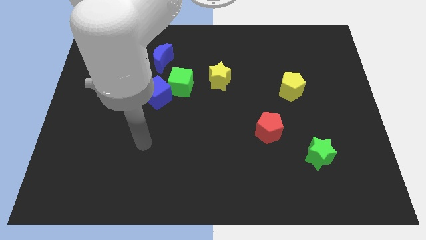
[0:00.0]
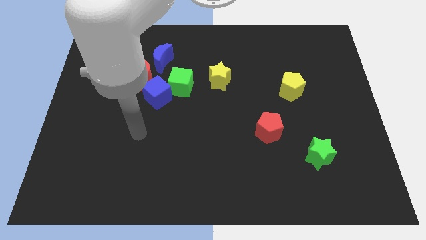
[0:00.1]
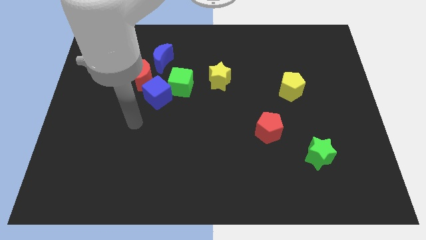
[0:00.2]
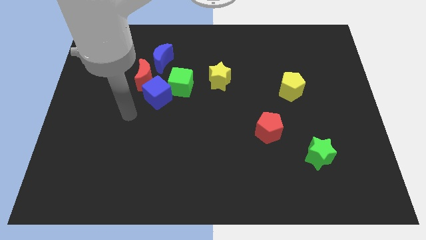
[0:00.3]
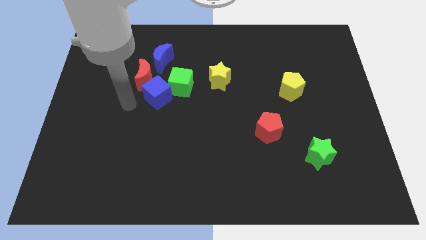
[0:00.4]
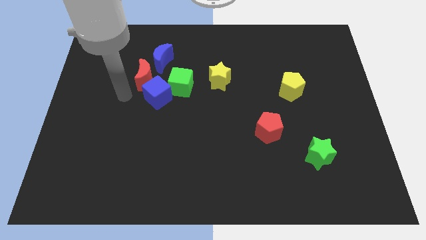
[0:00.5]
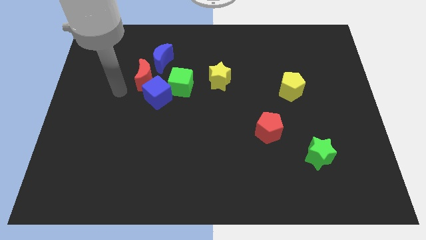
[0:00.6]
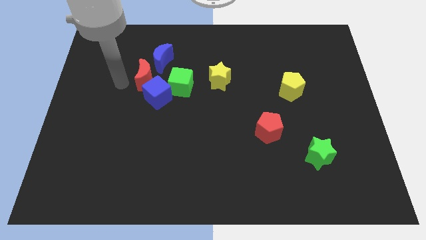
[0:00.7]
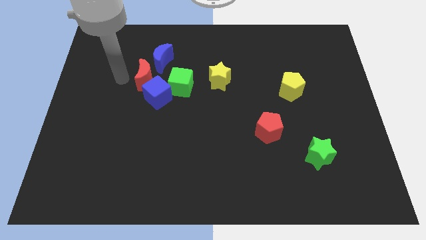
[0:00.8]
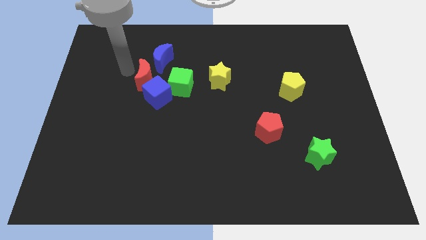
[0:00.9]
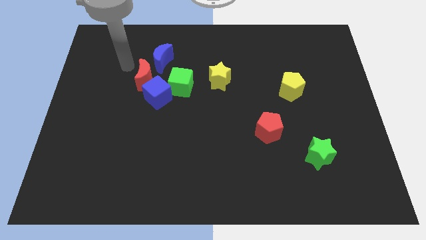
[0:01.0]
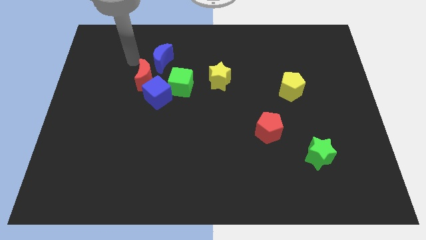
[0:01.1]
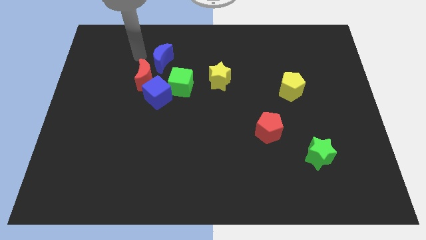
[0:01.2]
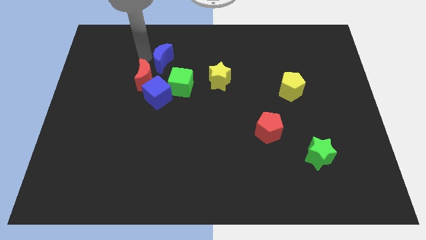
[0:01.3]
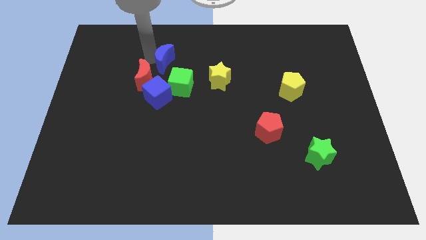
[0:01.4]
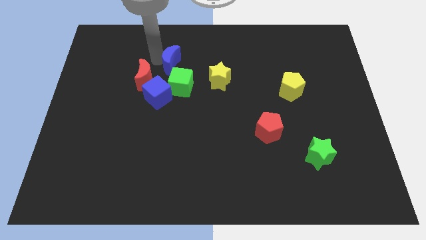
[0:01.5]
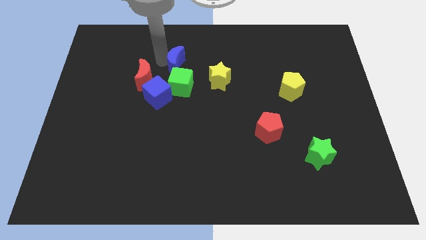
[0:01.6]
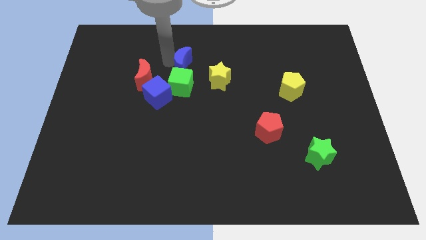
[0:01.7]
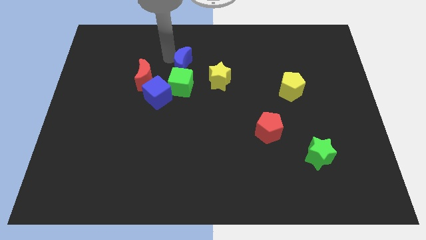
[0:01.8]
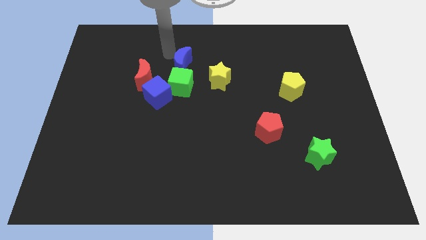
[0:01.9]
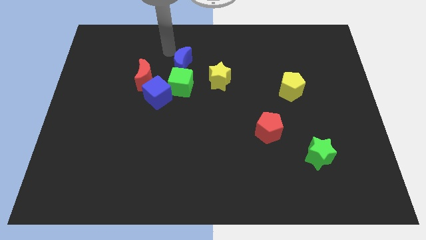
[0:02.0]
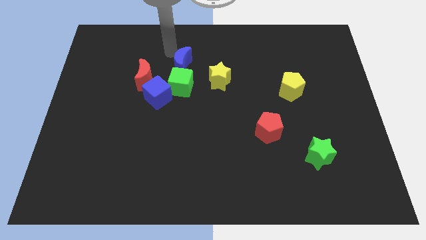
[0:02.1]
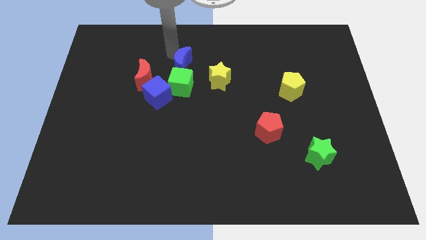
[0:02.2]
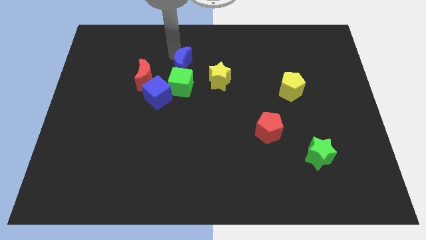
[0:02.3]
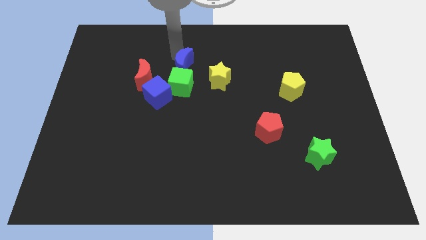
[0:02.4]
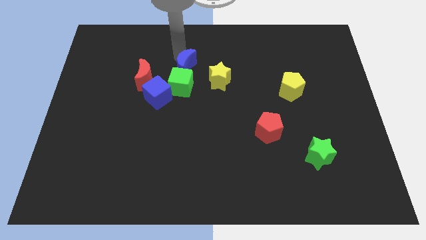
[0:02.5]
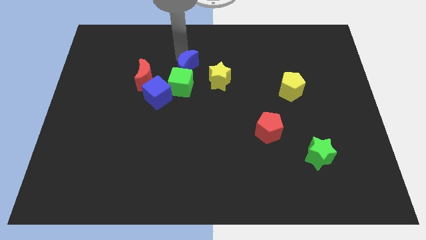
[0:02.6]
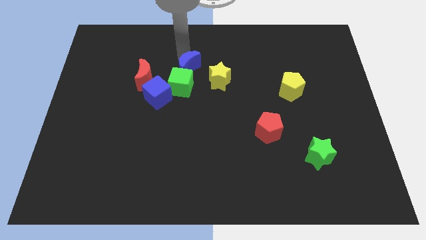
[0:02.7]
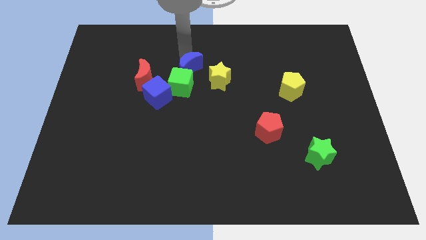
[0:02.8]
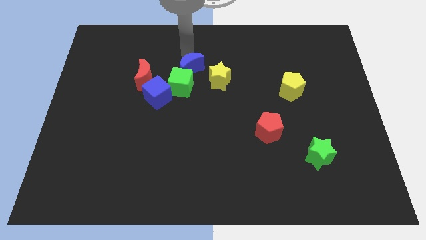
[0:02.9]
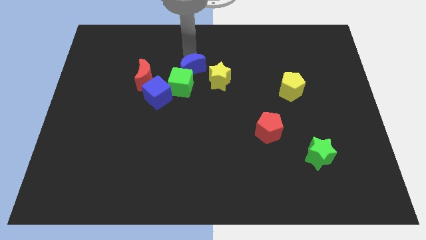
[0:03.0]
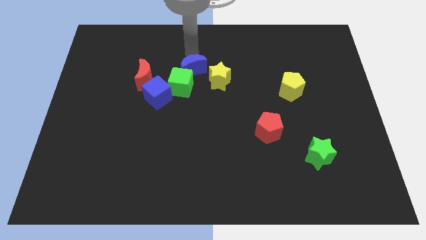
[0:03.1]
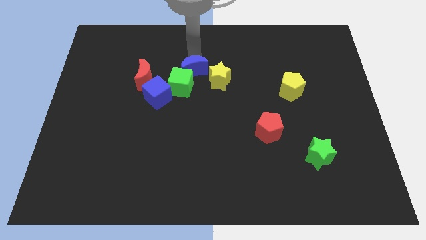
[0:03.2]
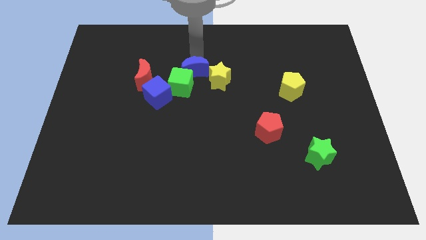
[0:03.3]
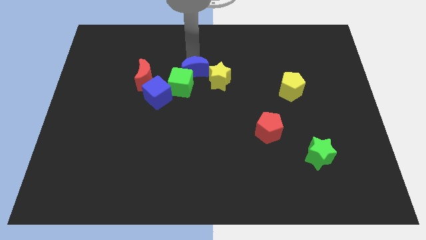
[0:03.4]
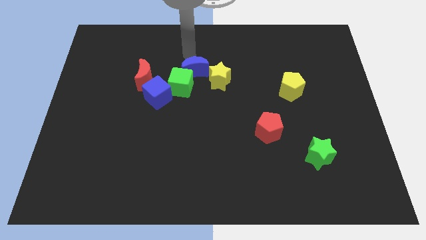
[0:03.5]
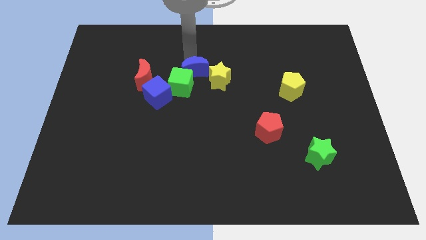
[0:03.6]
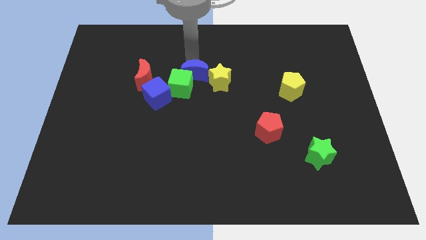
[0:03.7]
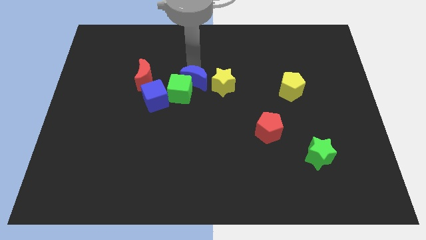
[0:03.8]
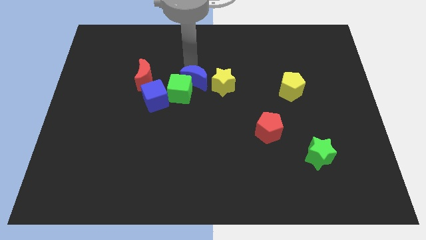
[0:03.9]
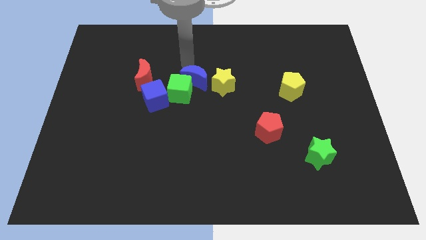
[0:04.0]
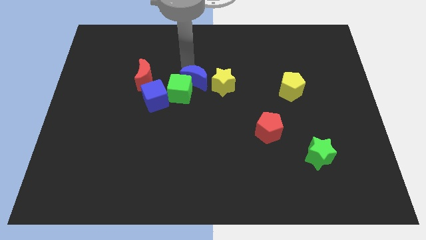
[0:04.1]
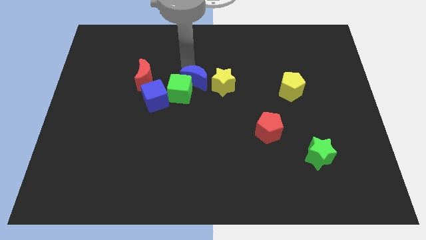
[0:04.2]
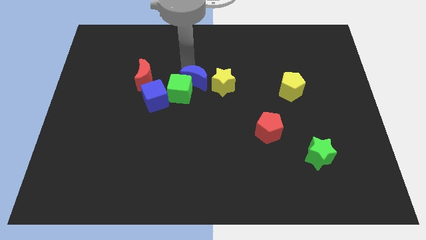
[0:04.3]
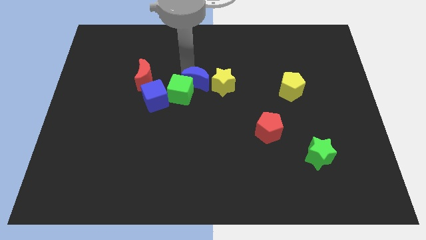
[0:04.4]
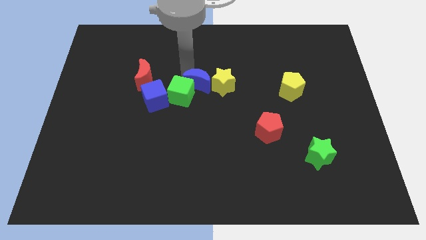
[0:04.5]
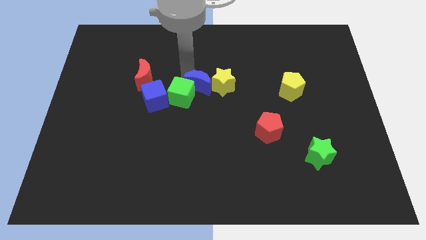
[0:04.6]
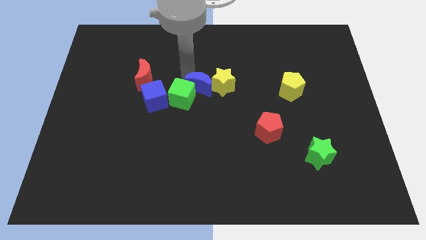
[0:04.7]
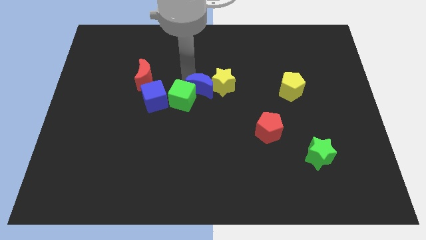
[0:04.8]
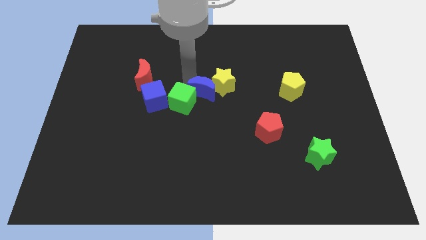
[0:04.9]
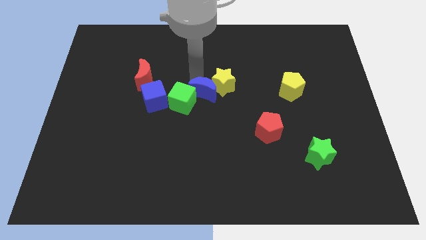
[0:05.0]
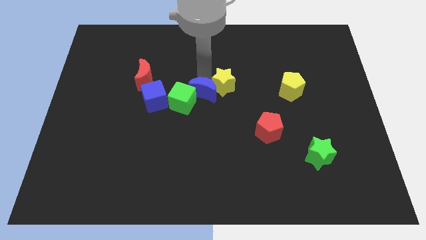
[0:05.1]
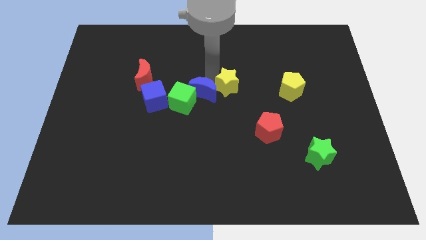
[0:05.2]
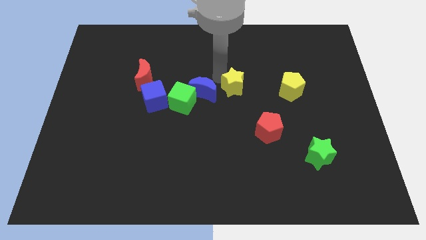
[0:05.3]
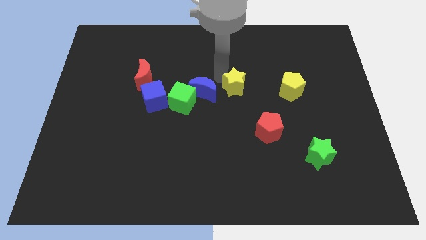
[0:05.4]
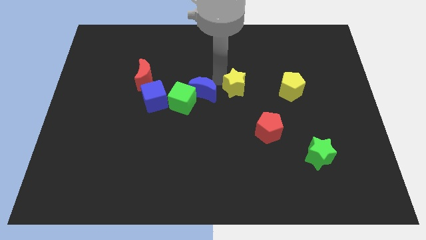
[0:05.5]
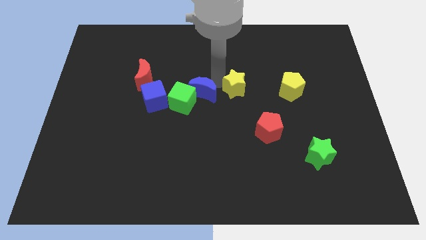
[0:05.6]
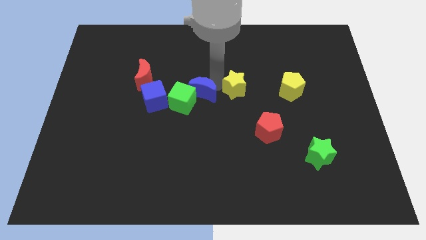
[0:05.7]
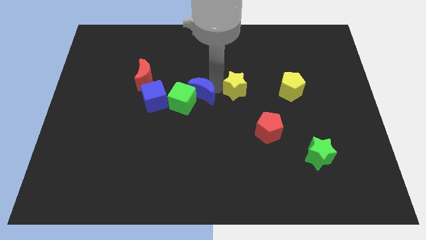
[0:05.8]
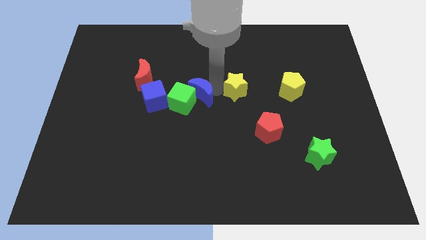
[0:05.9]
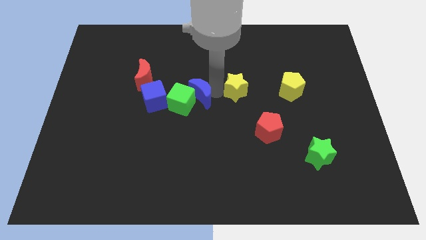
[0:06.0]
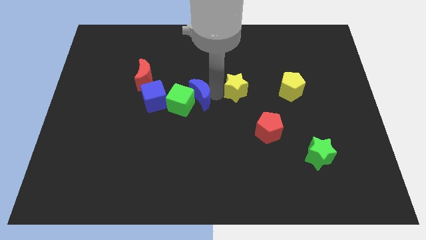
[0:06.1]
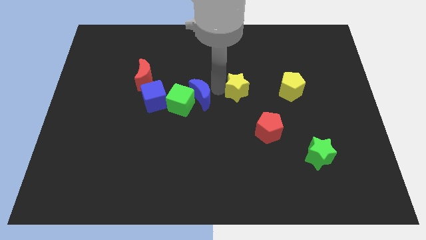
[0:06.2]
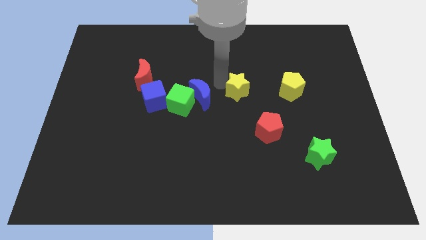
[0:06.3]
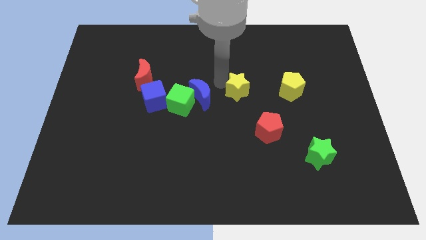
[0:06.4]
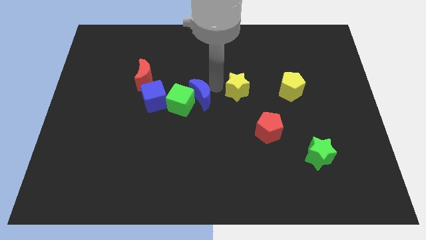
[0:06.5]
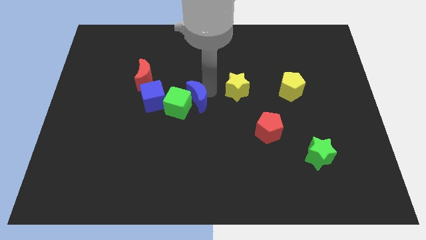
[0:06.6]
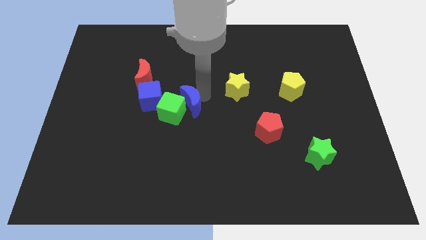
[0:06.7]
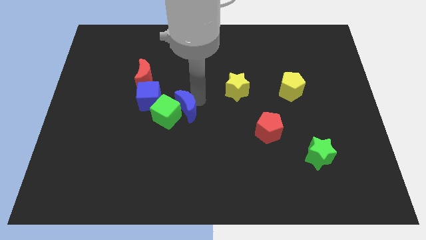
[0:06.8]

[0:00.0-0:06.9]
slide the blue moon to the bottom right of the blue cube
